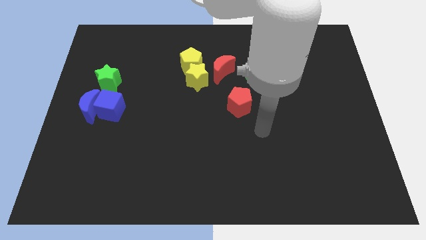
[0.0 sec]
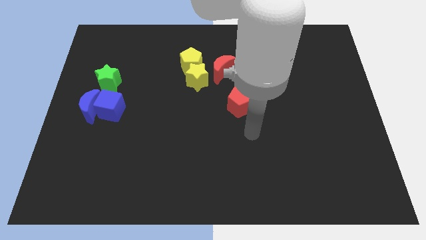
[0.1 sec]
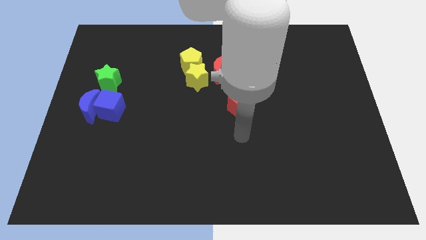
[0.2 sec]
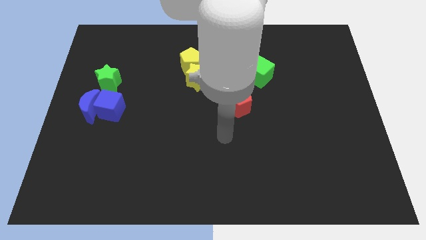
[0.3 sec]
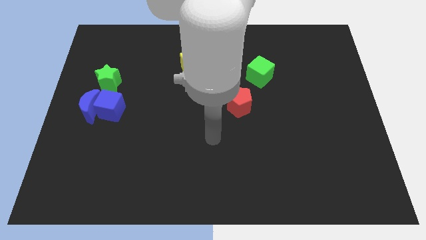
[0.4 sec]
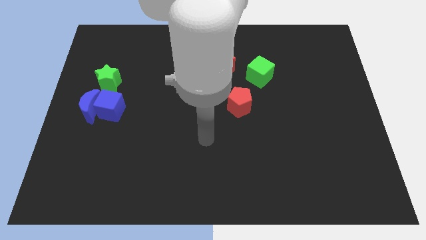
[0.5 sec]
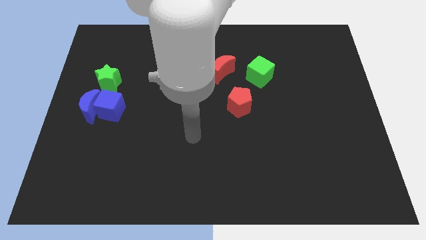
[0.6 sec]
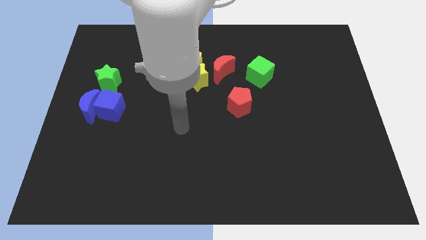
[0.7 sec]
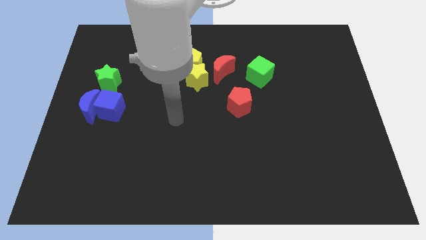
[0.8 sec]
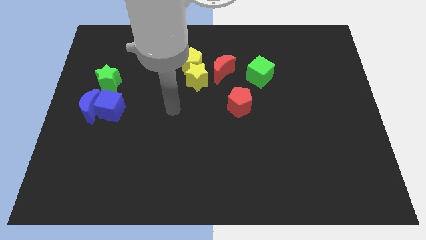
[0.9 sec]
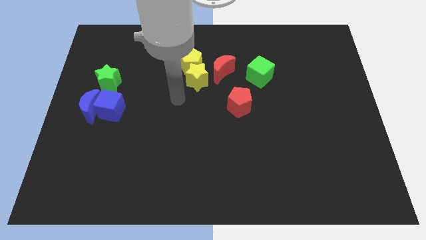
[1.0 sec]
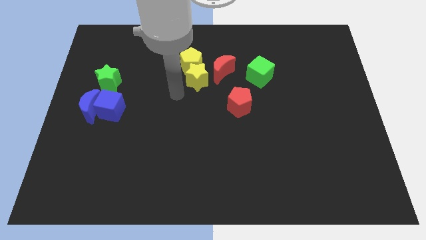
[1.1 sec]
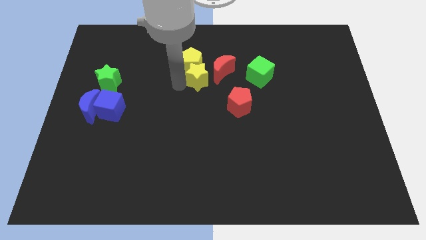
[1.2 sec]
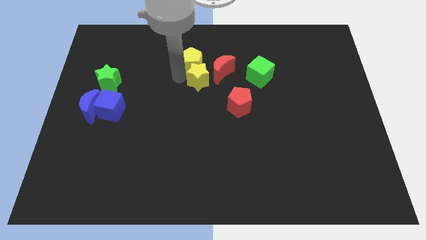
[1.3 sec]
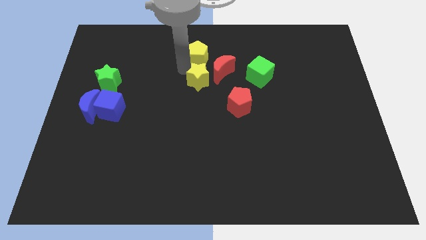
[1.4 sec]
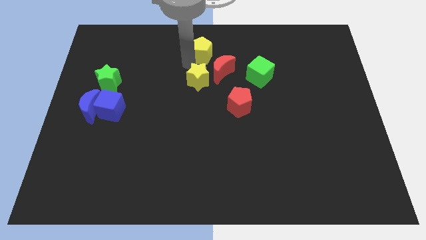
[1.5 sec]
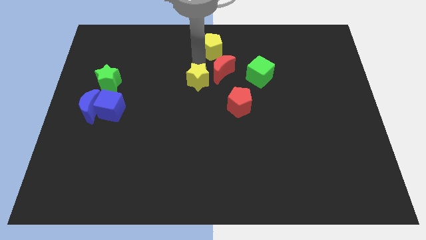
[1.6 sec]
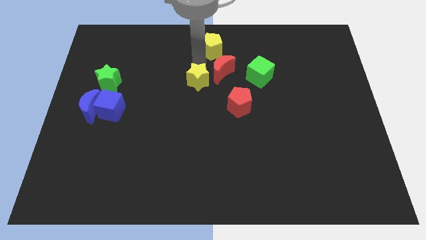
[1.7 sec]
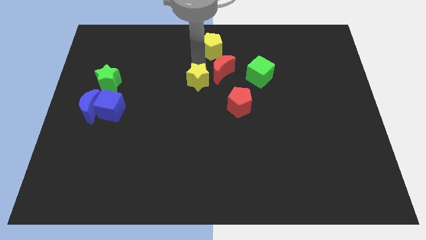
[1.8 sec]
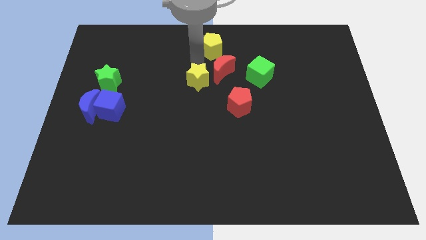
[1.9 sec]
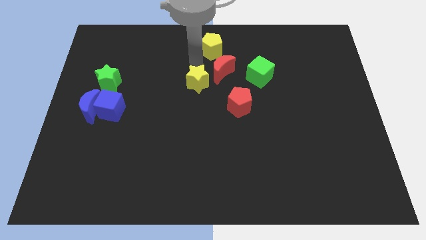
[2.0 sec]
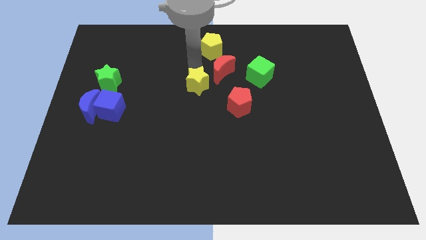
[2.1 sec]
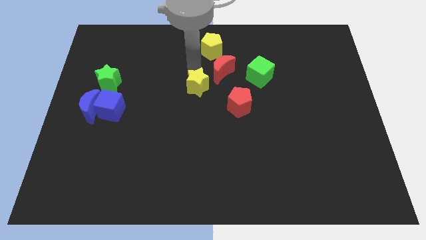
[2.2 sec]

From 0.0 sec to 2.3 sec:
separate the yellow star from the yellow pentagon and red moon

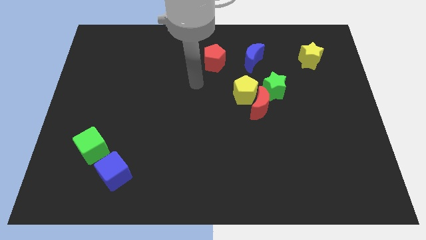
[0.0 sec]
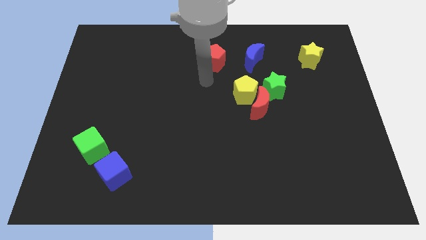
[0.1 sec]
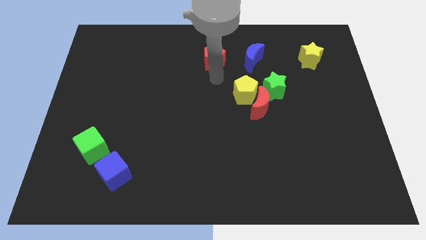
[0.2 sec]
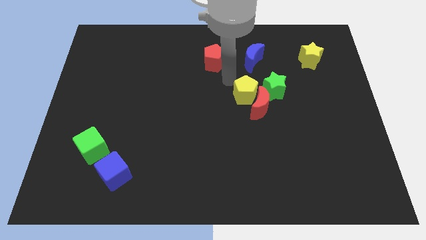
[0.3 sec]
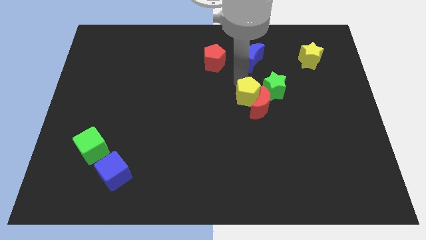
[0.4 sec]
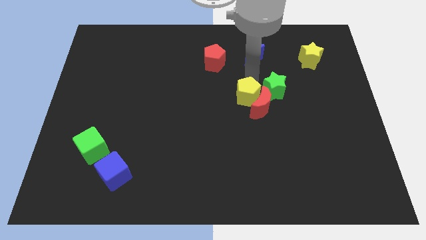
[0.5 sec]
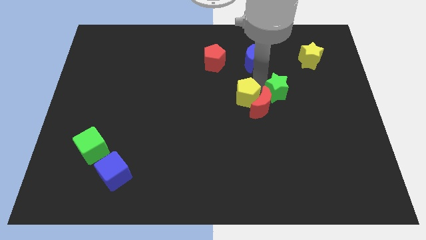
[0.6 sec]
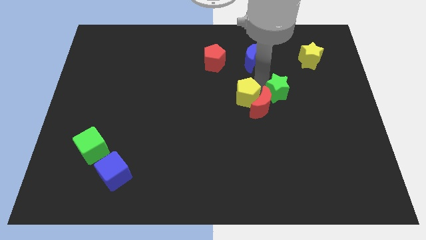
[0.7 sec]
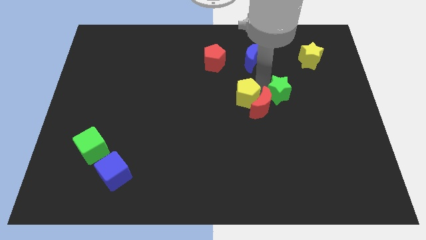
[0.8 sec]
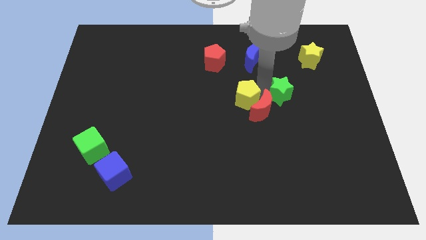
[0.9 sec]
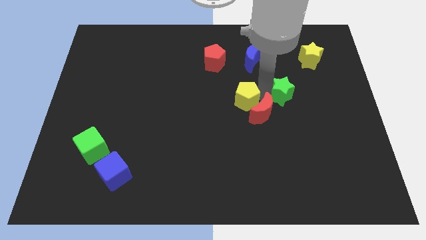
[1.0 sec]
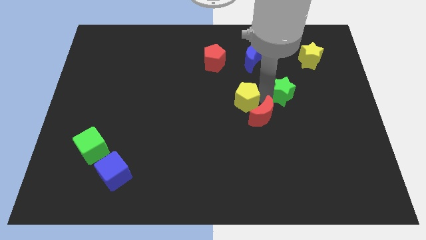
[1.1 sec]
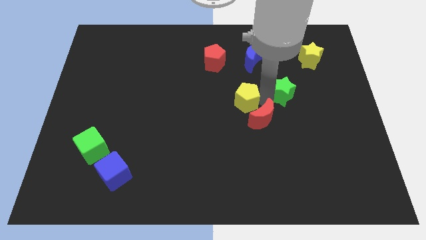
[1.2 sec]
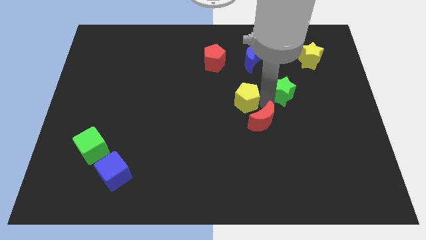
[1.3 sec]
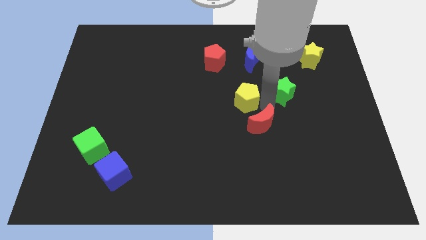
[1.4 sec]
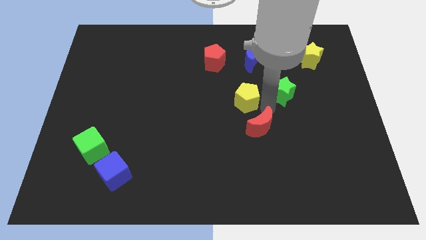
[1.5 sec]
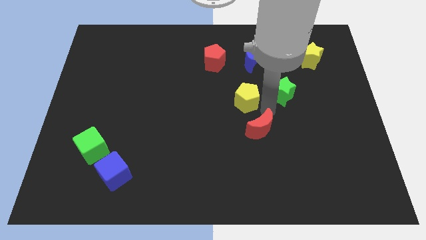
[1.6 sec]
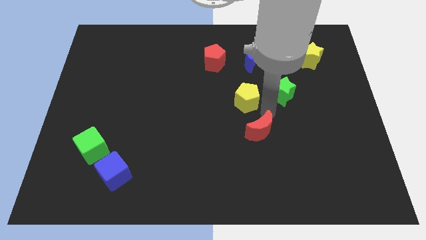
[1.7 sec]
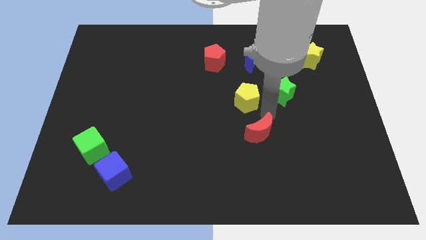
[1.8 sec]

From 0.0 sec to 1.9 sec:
move the red moon away from the yellow pentagon and green star

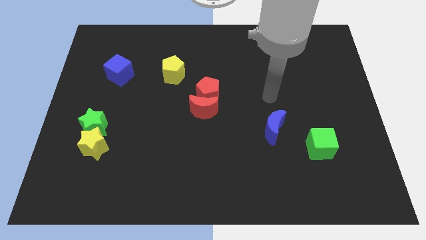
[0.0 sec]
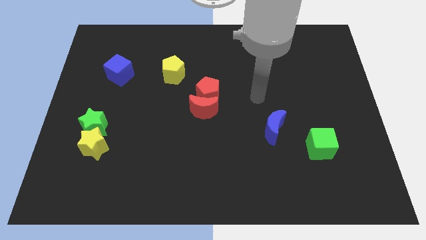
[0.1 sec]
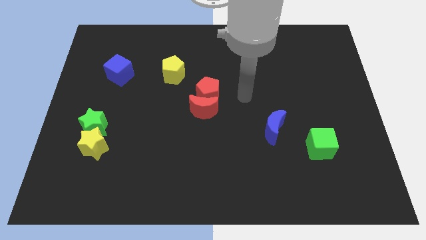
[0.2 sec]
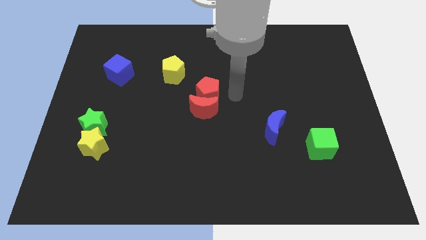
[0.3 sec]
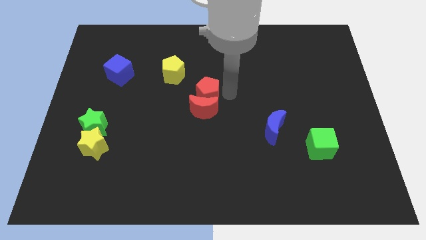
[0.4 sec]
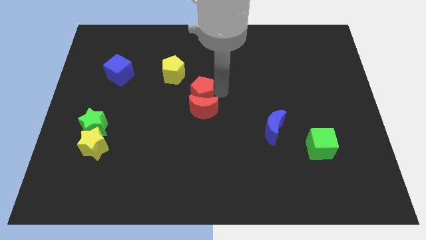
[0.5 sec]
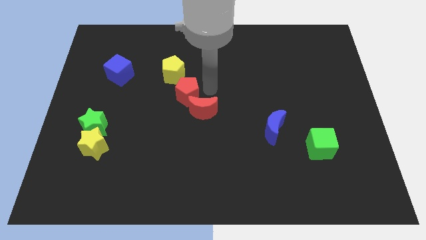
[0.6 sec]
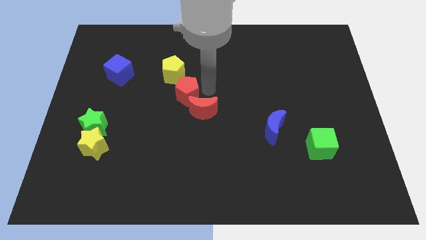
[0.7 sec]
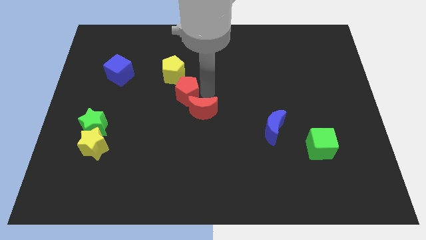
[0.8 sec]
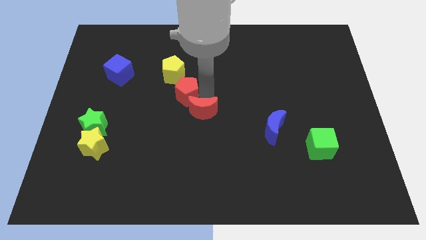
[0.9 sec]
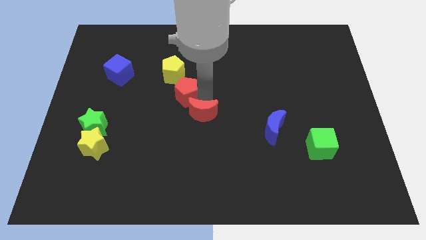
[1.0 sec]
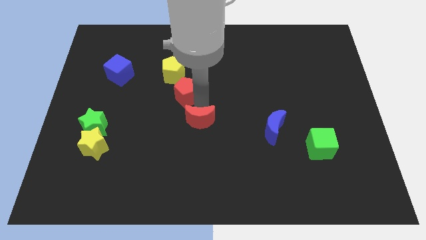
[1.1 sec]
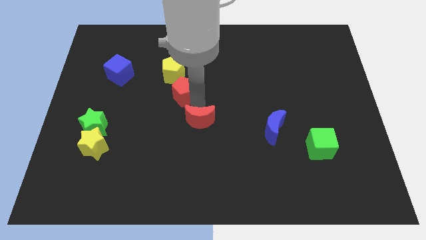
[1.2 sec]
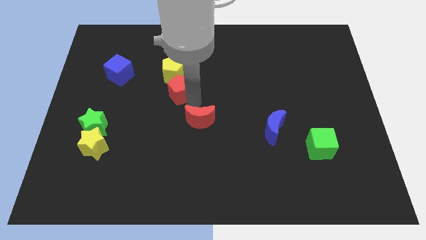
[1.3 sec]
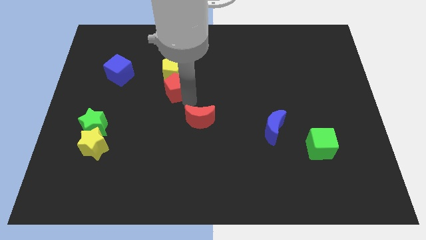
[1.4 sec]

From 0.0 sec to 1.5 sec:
separate the red moon from the red pentagon

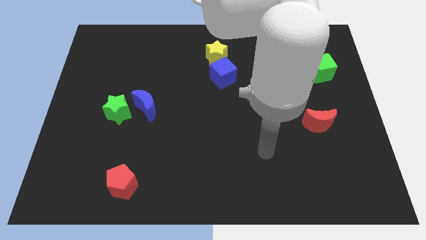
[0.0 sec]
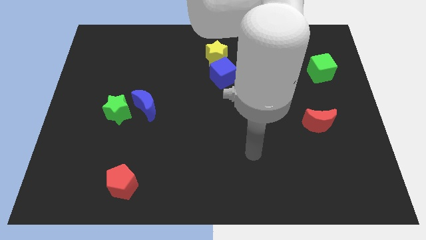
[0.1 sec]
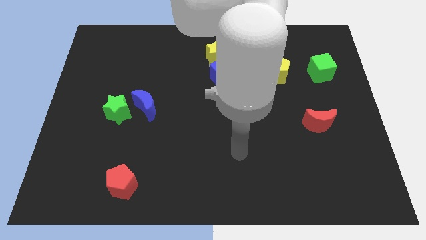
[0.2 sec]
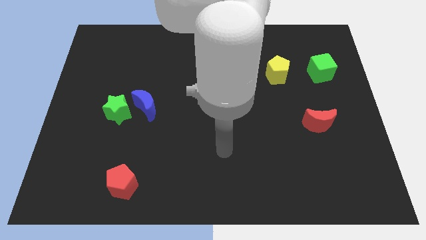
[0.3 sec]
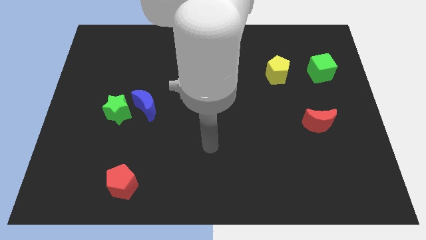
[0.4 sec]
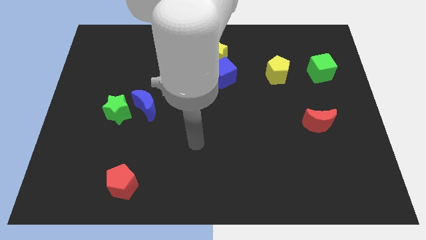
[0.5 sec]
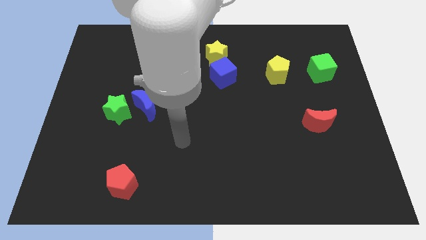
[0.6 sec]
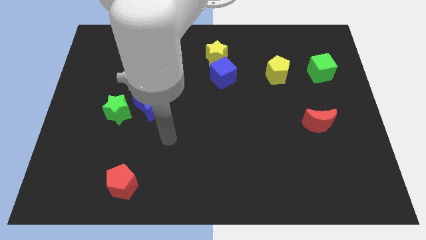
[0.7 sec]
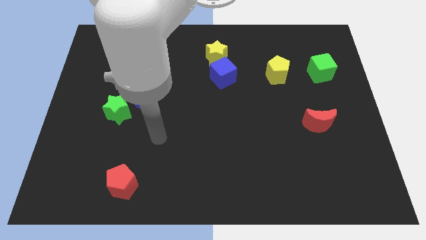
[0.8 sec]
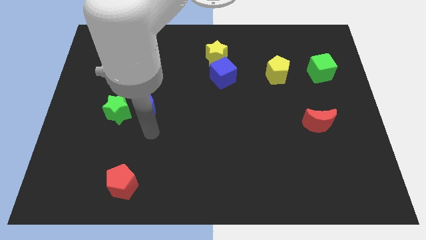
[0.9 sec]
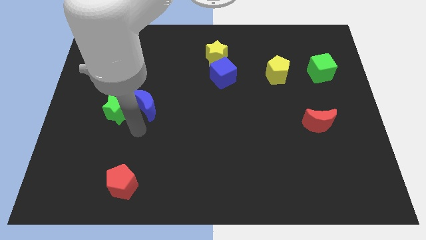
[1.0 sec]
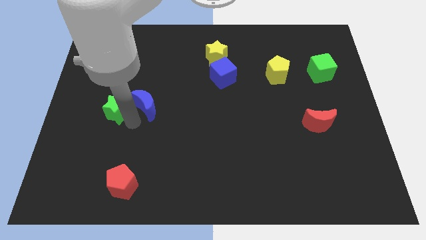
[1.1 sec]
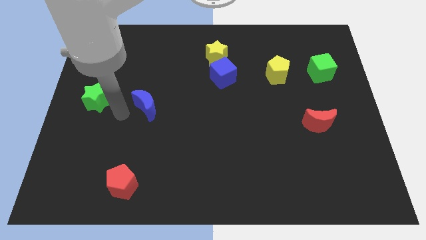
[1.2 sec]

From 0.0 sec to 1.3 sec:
move the blue moon away from the green star

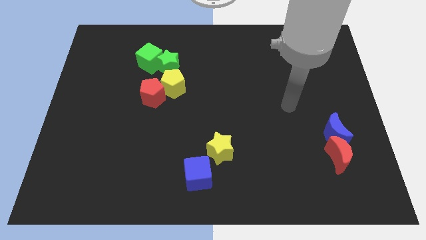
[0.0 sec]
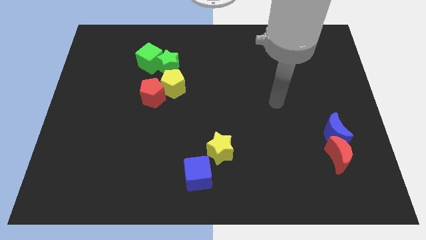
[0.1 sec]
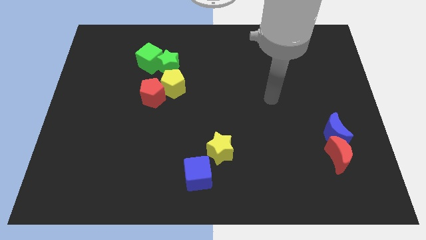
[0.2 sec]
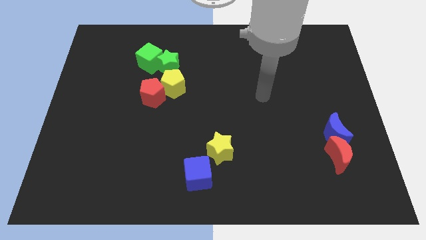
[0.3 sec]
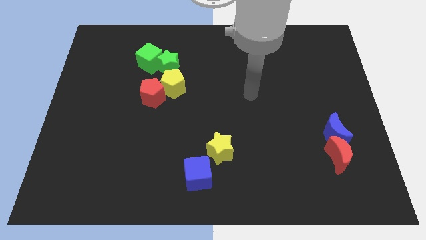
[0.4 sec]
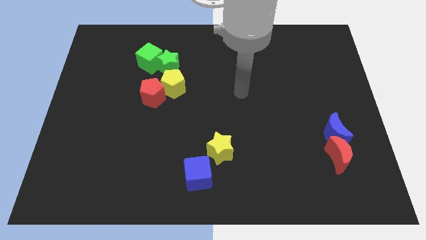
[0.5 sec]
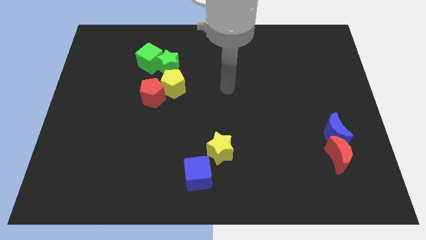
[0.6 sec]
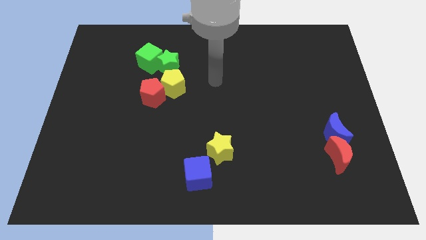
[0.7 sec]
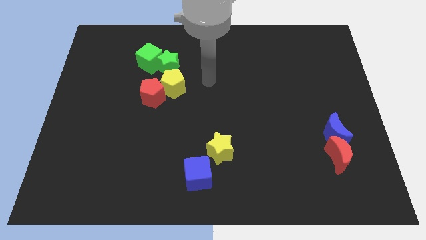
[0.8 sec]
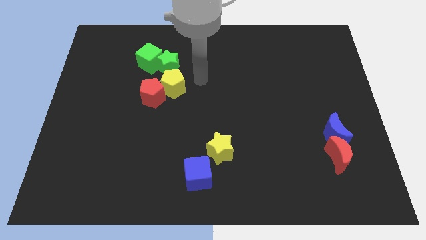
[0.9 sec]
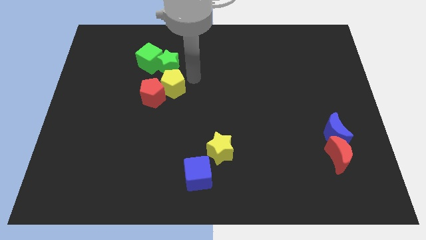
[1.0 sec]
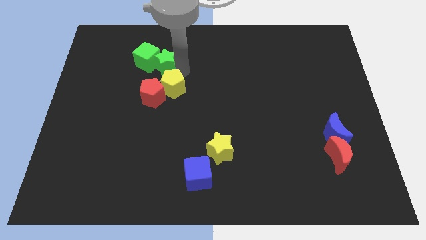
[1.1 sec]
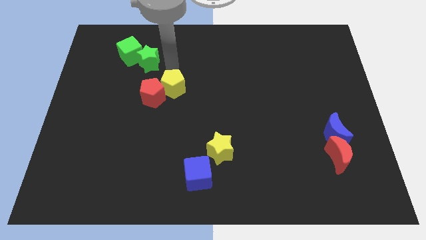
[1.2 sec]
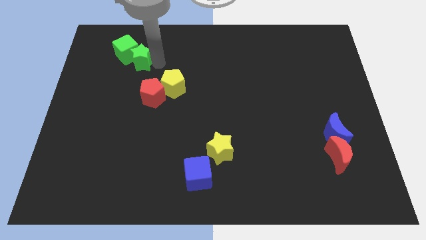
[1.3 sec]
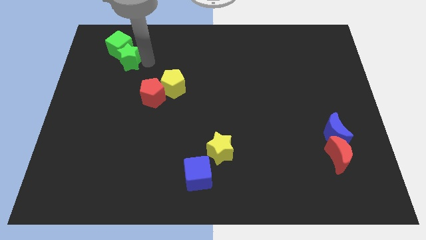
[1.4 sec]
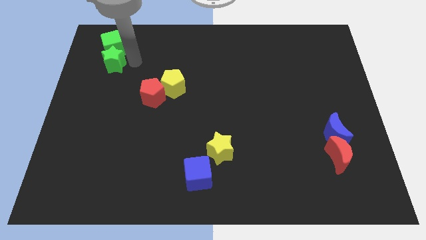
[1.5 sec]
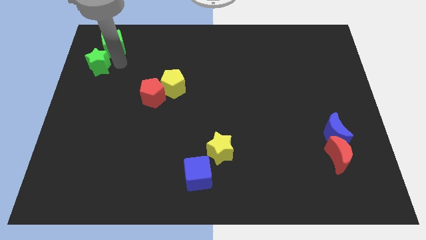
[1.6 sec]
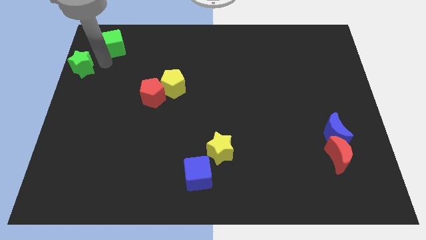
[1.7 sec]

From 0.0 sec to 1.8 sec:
pull the green cube apart from the green star

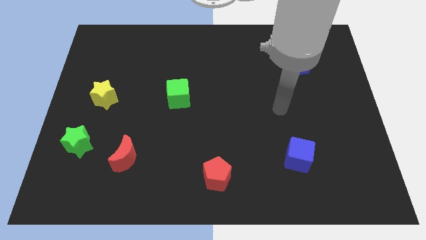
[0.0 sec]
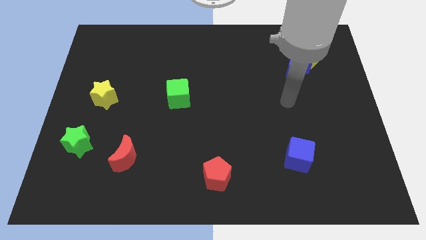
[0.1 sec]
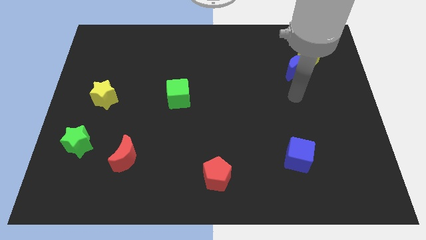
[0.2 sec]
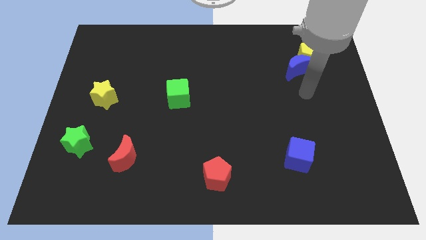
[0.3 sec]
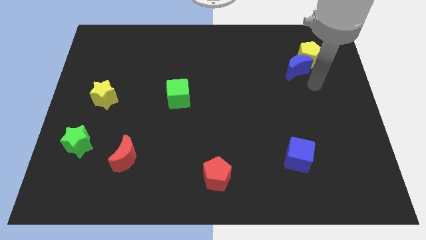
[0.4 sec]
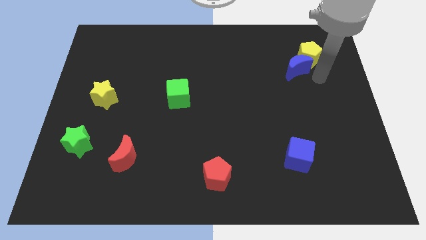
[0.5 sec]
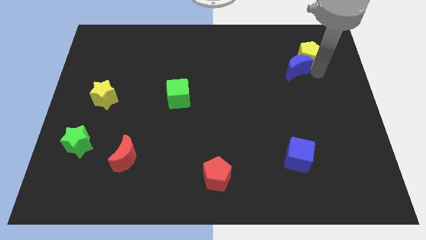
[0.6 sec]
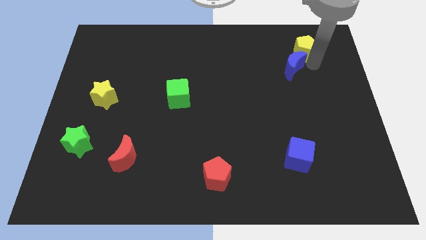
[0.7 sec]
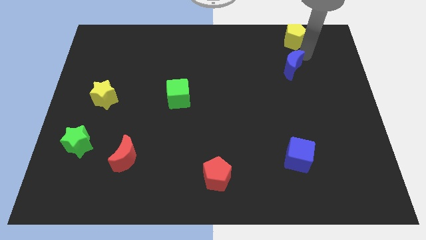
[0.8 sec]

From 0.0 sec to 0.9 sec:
separate the blue moon from the yellow pentagon
